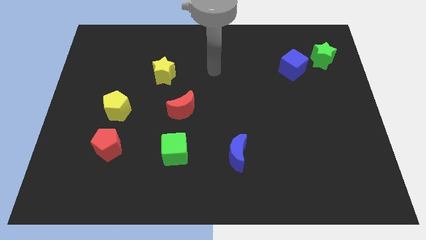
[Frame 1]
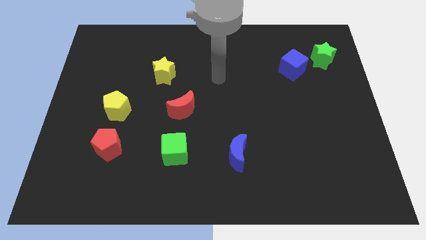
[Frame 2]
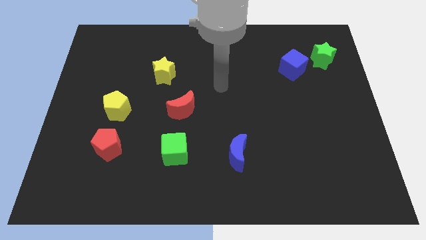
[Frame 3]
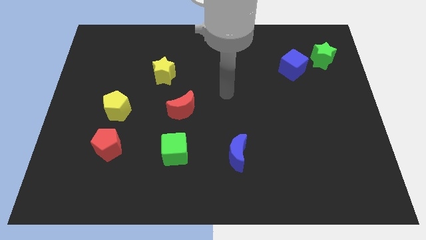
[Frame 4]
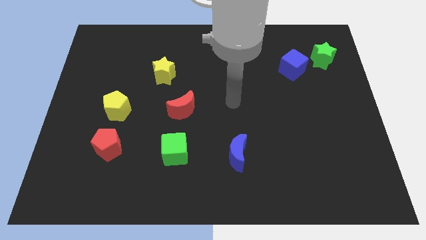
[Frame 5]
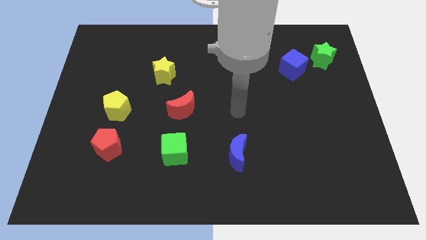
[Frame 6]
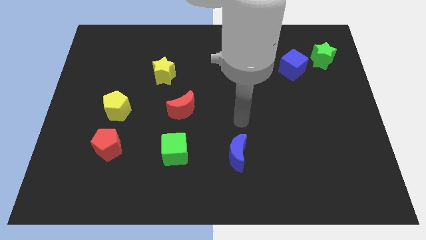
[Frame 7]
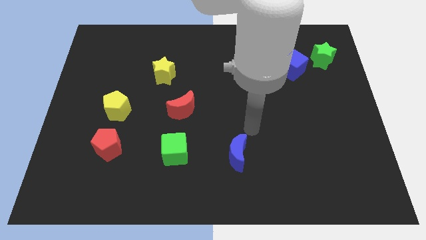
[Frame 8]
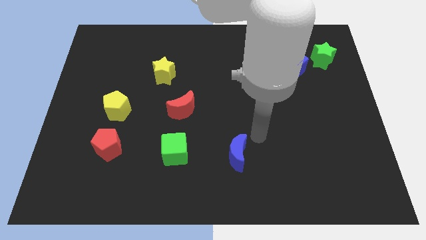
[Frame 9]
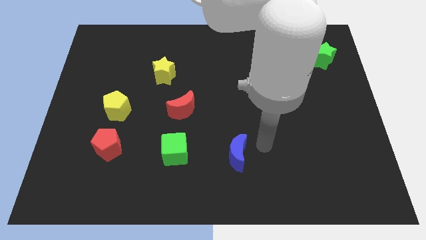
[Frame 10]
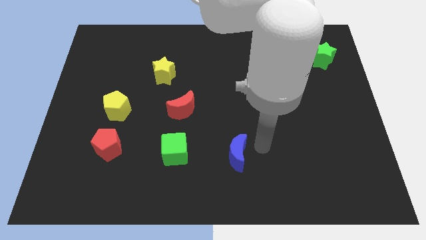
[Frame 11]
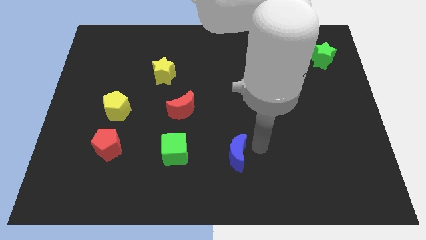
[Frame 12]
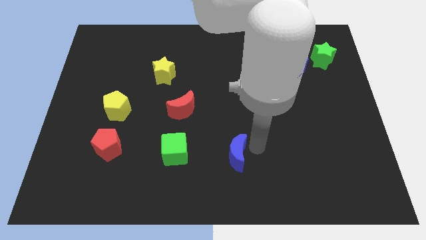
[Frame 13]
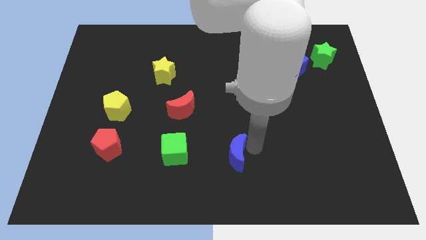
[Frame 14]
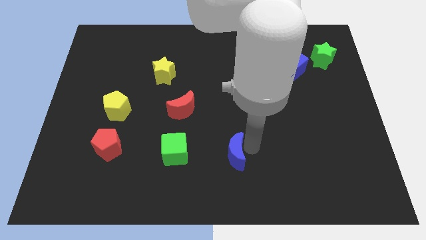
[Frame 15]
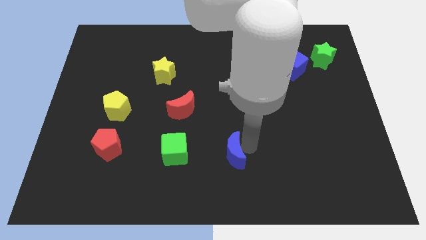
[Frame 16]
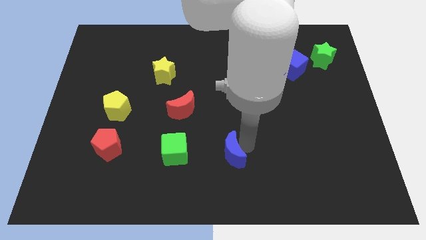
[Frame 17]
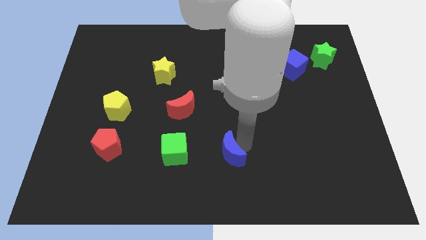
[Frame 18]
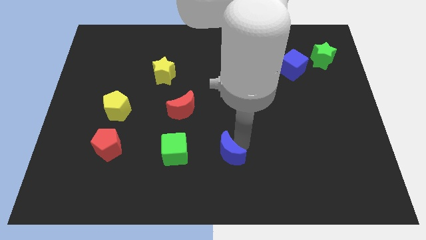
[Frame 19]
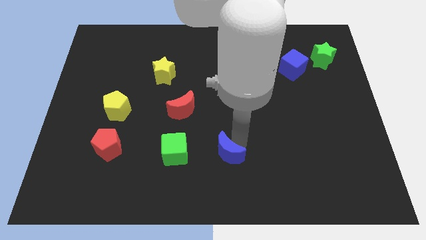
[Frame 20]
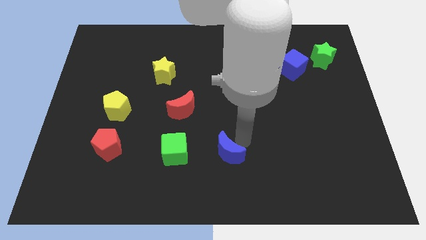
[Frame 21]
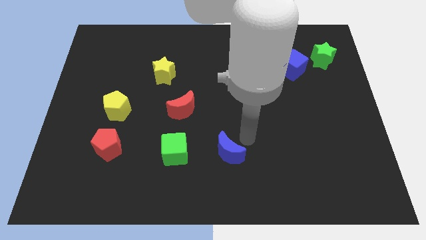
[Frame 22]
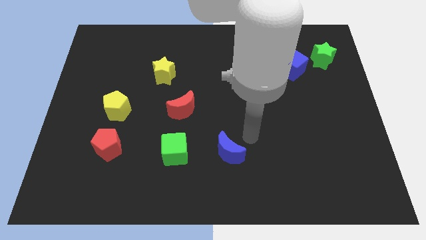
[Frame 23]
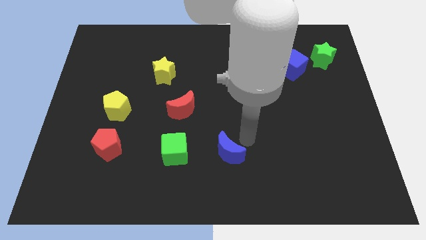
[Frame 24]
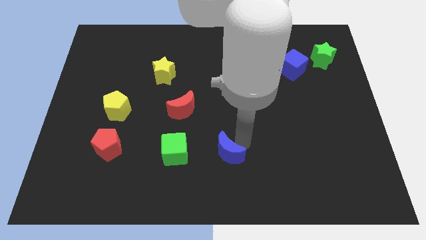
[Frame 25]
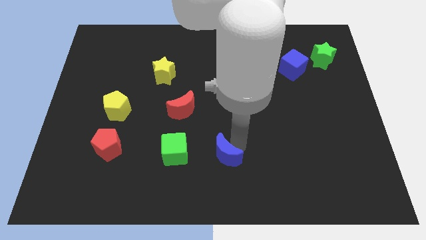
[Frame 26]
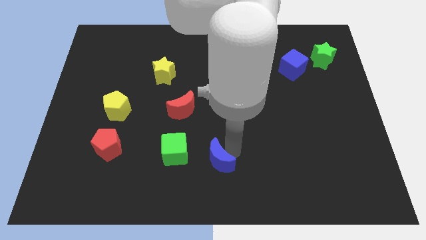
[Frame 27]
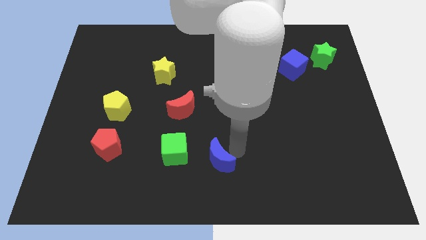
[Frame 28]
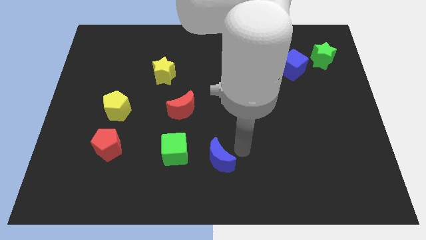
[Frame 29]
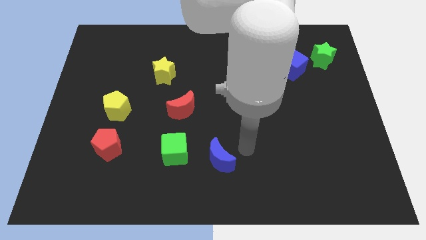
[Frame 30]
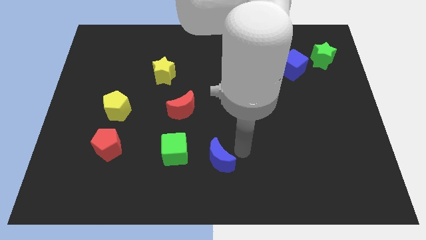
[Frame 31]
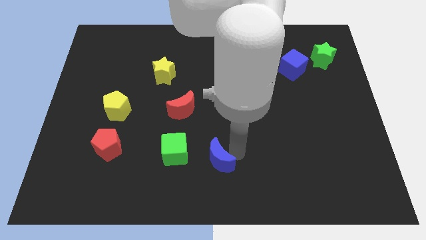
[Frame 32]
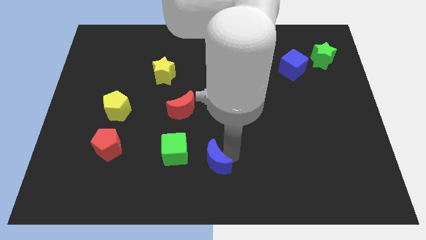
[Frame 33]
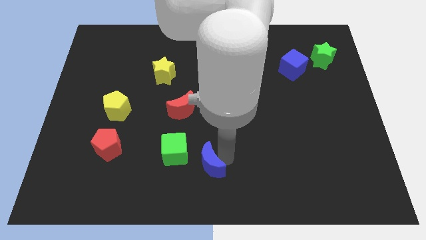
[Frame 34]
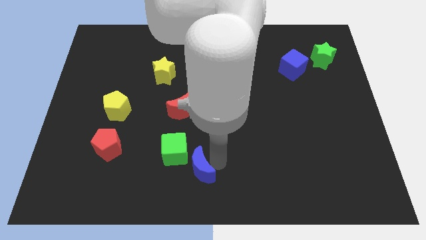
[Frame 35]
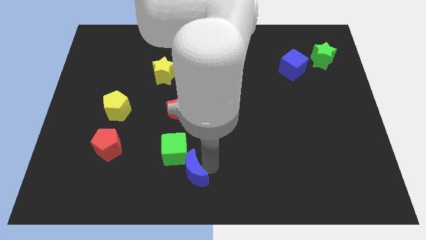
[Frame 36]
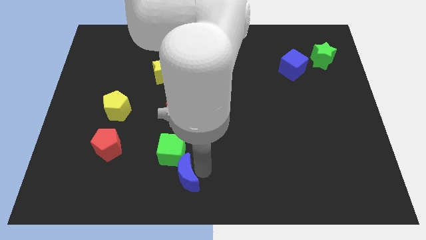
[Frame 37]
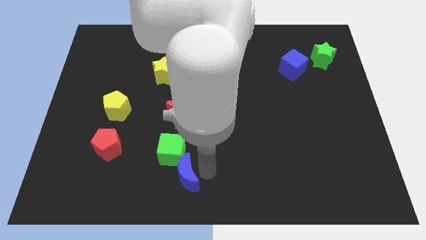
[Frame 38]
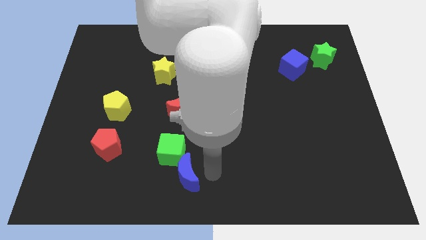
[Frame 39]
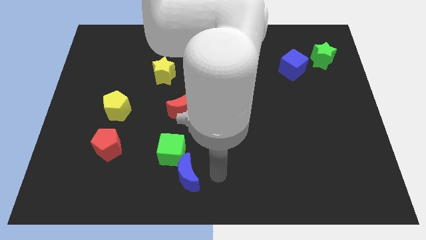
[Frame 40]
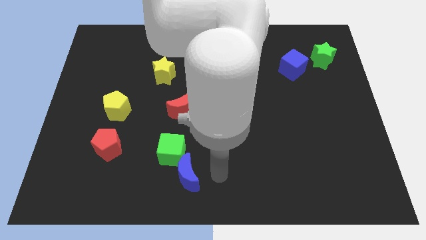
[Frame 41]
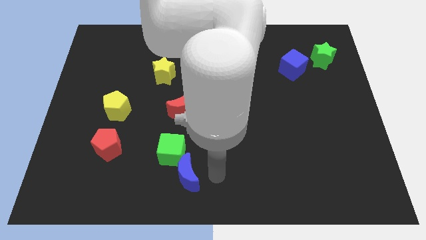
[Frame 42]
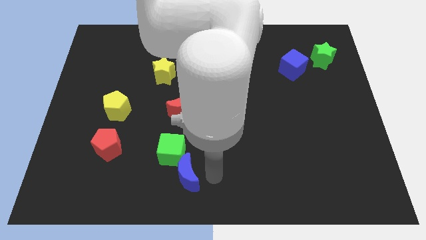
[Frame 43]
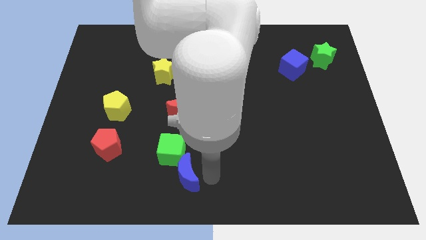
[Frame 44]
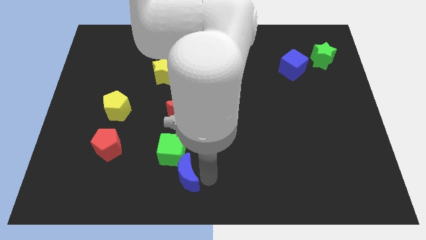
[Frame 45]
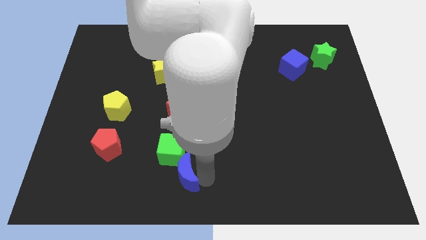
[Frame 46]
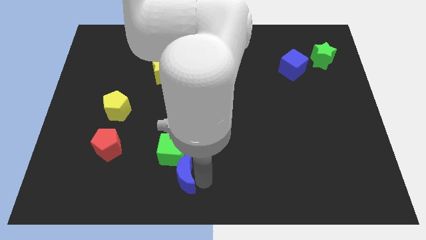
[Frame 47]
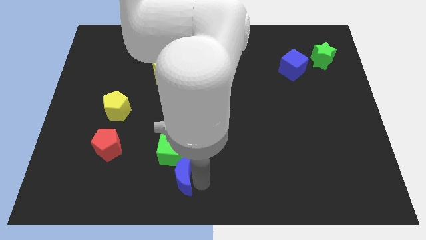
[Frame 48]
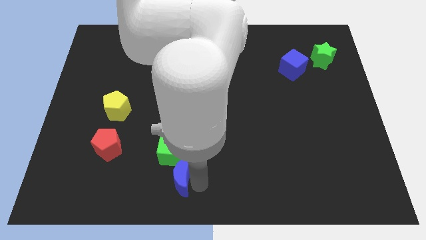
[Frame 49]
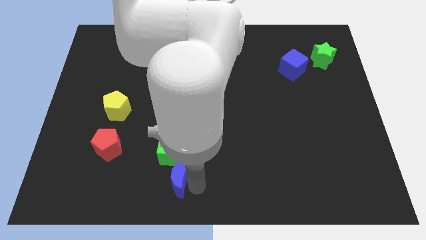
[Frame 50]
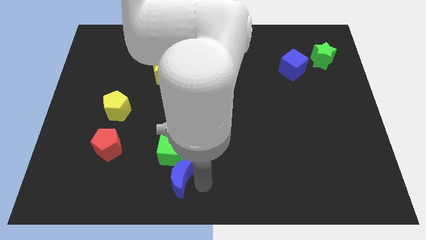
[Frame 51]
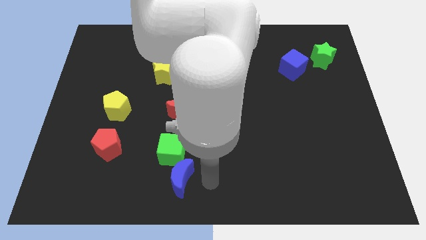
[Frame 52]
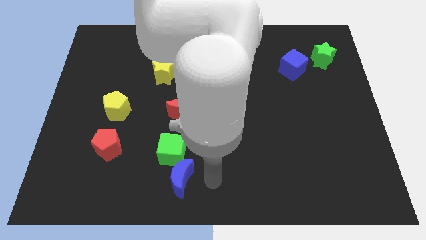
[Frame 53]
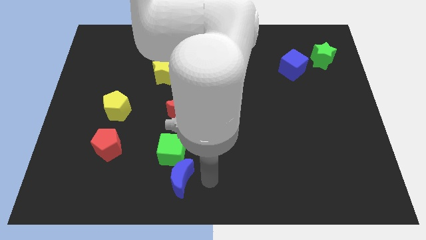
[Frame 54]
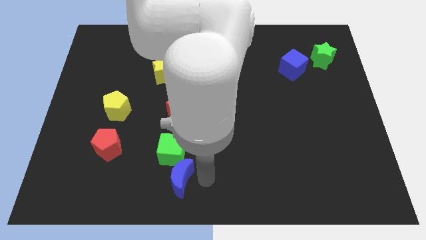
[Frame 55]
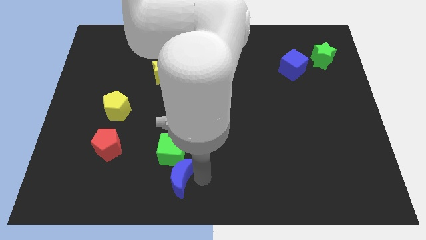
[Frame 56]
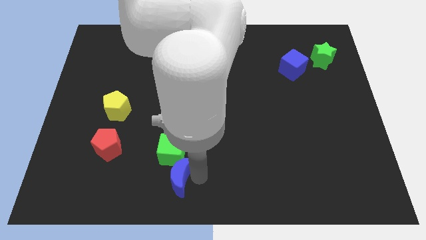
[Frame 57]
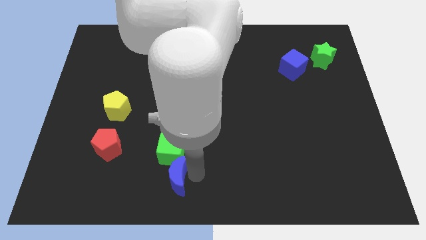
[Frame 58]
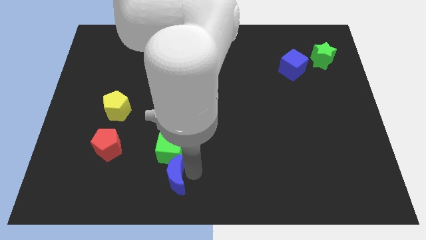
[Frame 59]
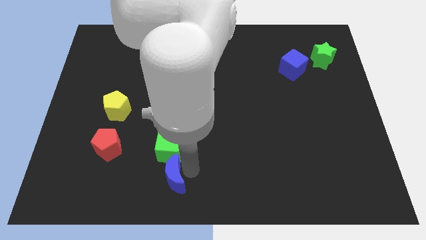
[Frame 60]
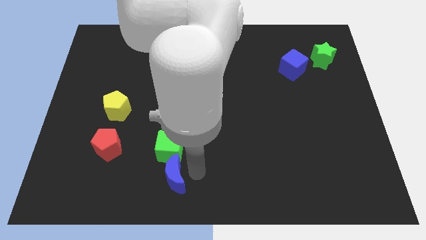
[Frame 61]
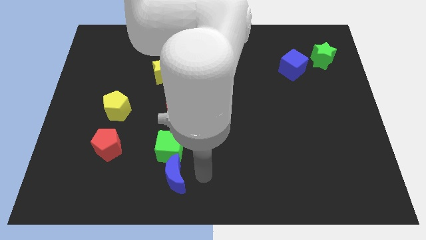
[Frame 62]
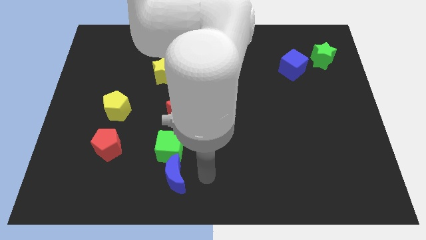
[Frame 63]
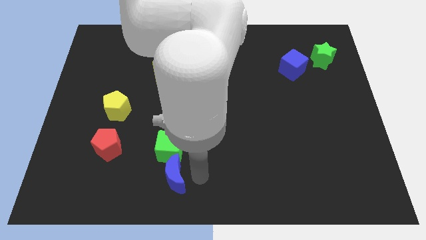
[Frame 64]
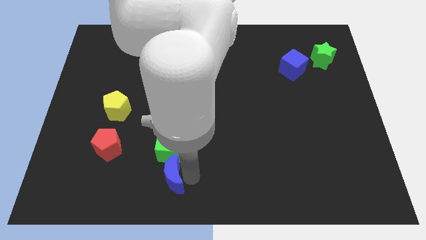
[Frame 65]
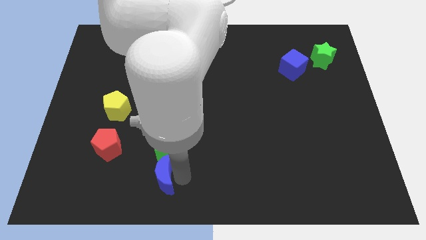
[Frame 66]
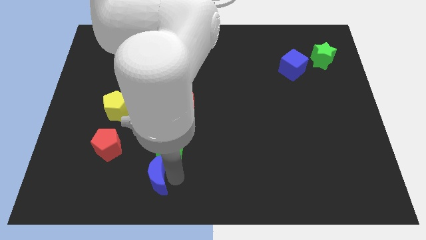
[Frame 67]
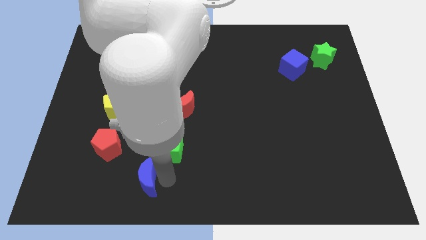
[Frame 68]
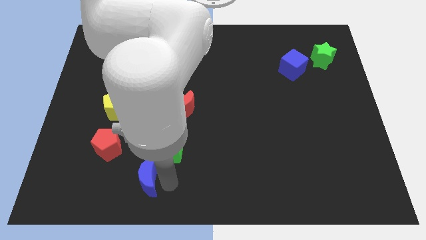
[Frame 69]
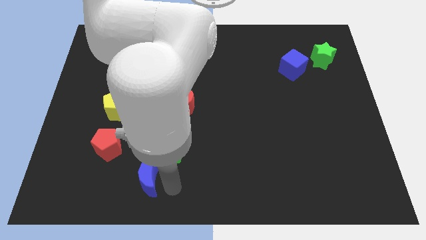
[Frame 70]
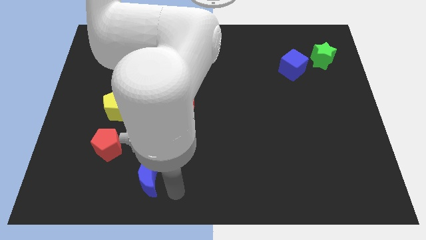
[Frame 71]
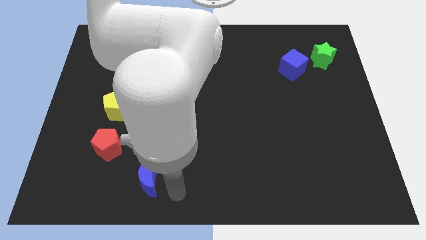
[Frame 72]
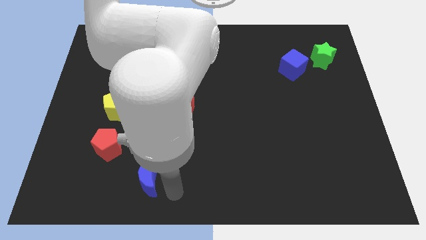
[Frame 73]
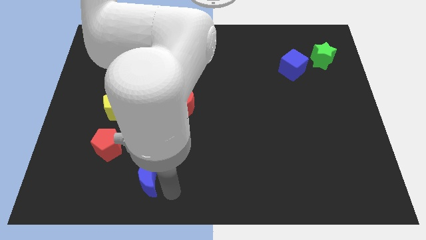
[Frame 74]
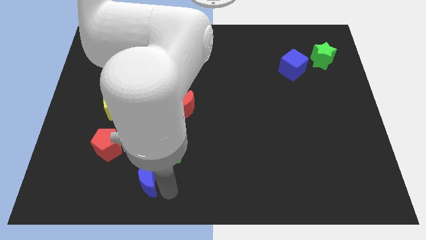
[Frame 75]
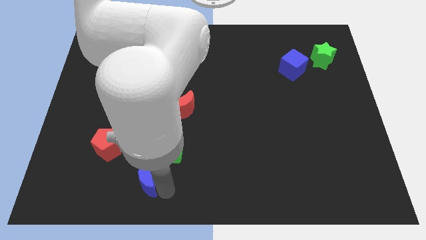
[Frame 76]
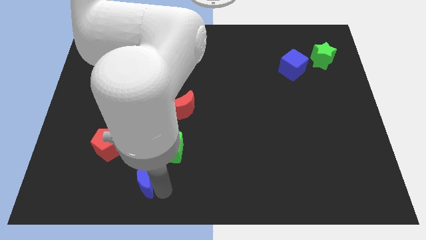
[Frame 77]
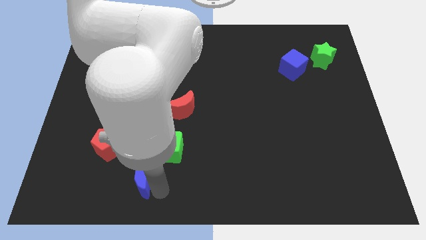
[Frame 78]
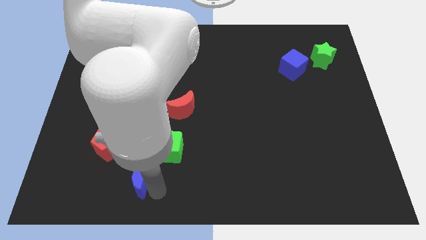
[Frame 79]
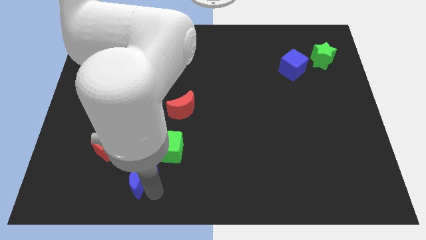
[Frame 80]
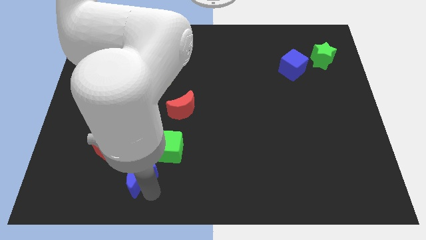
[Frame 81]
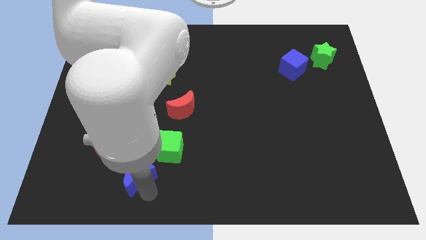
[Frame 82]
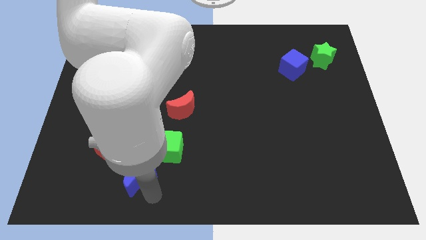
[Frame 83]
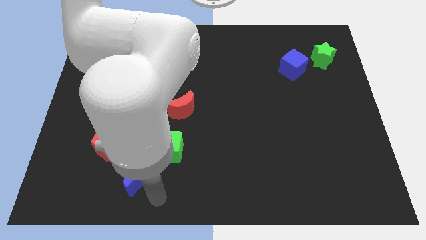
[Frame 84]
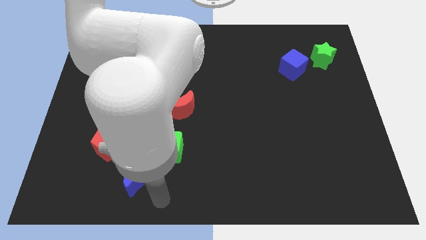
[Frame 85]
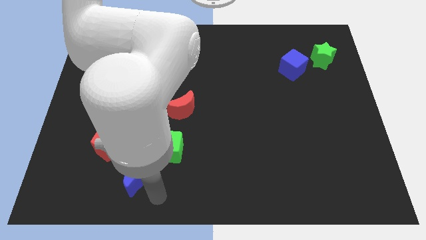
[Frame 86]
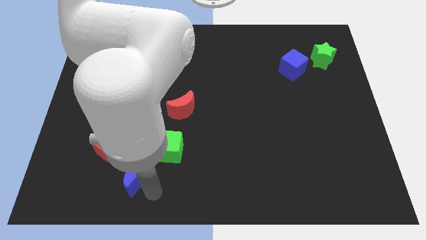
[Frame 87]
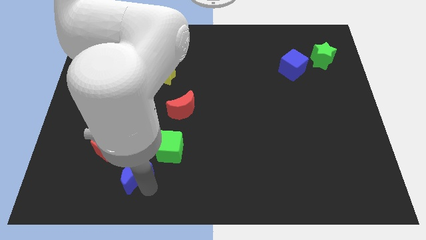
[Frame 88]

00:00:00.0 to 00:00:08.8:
move the blue moon to the left
